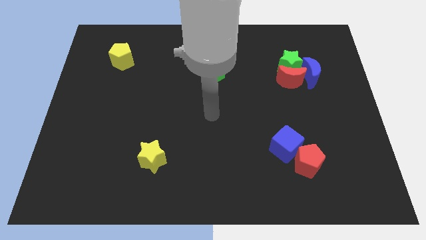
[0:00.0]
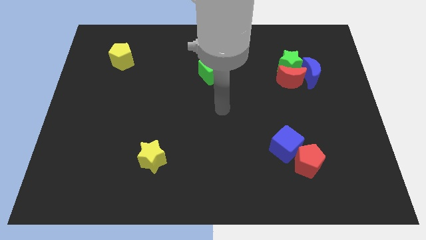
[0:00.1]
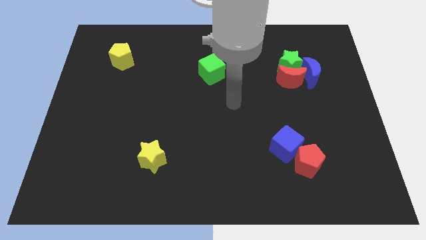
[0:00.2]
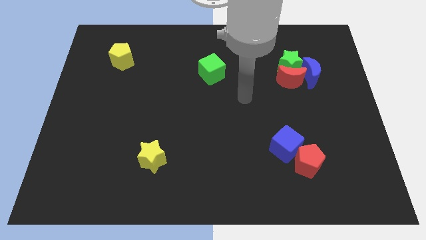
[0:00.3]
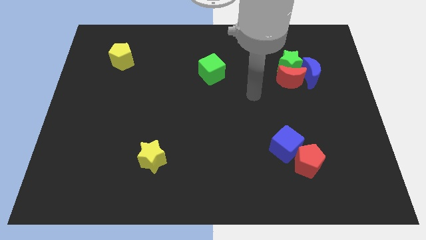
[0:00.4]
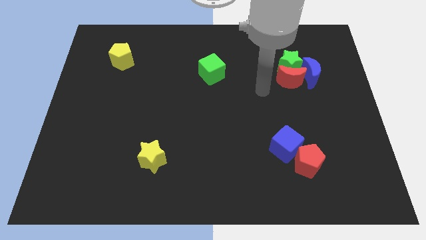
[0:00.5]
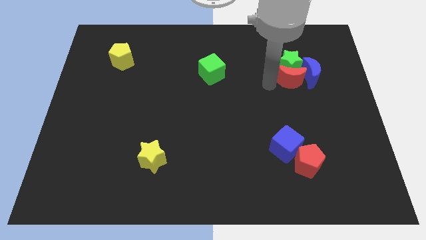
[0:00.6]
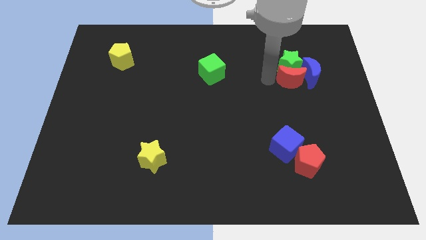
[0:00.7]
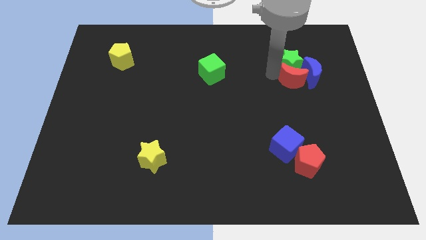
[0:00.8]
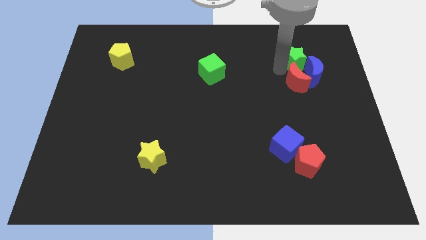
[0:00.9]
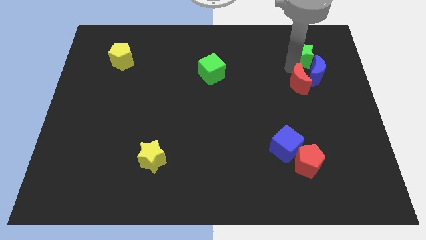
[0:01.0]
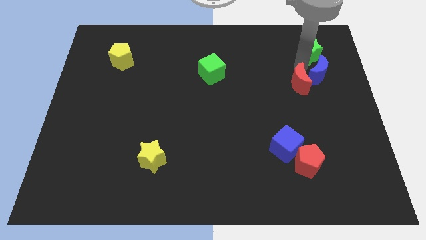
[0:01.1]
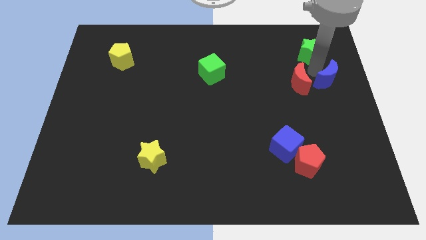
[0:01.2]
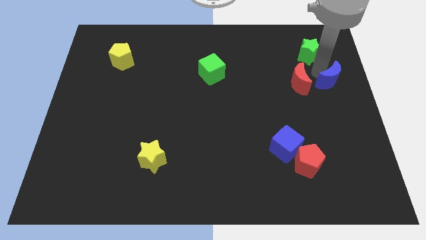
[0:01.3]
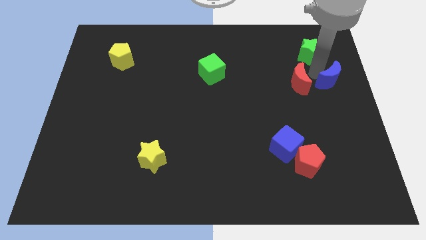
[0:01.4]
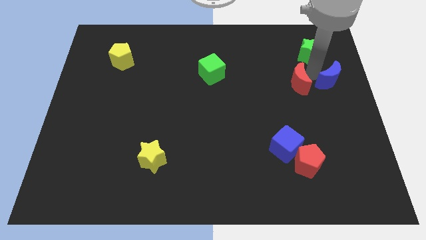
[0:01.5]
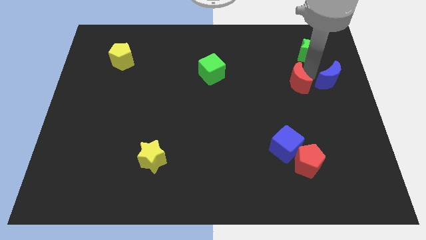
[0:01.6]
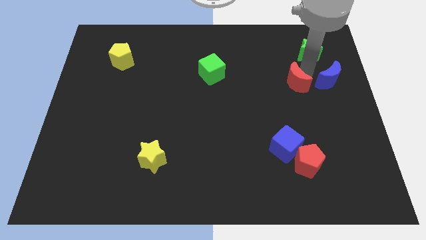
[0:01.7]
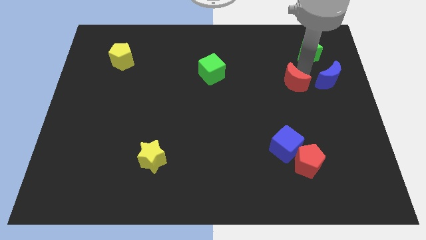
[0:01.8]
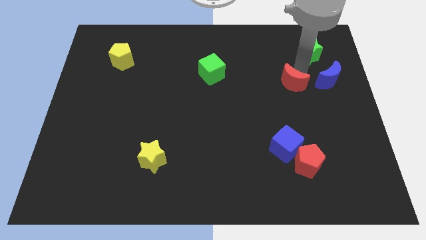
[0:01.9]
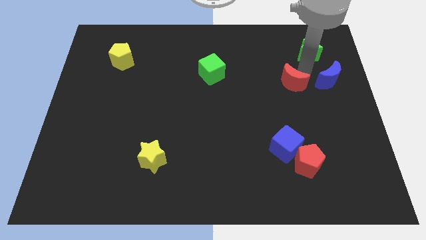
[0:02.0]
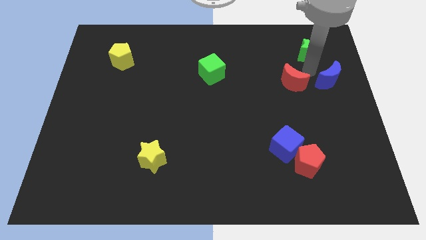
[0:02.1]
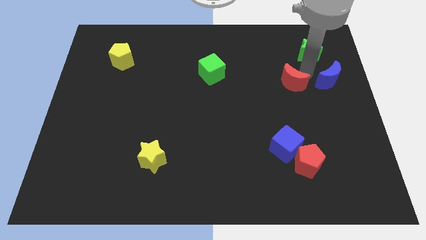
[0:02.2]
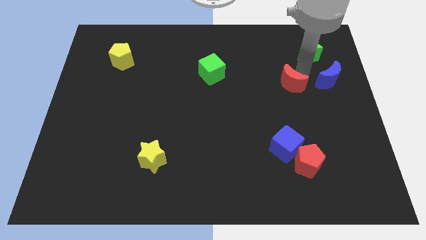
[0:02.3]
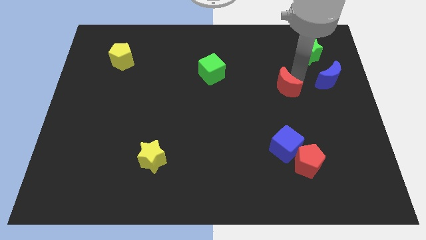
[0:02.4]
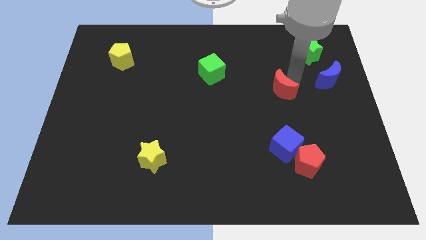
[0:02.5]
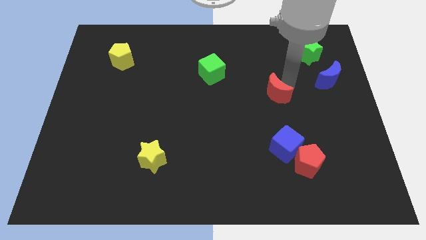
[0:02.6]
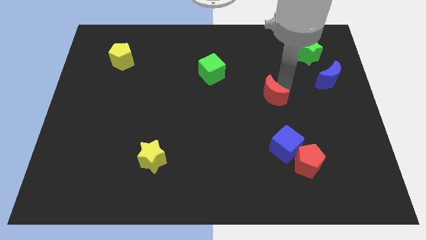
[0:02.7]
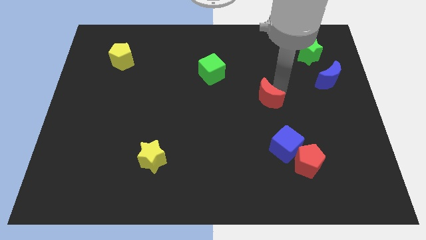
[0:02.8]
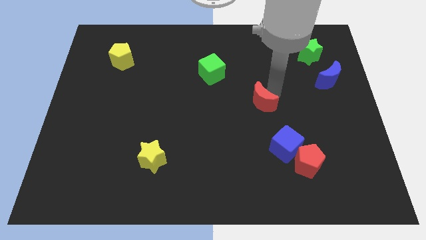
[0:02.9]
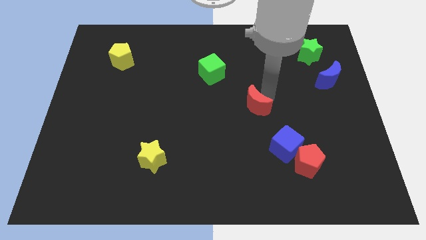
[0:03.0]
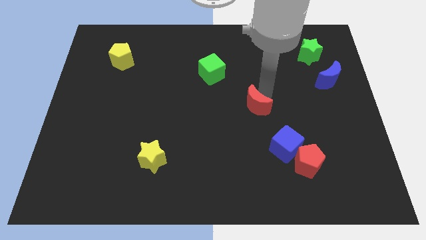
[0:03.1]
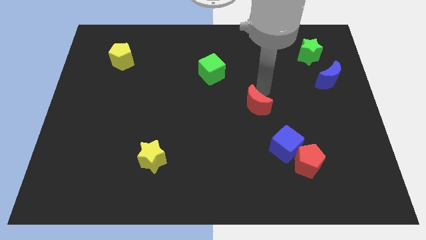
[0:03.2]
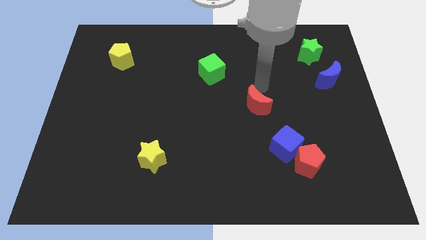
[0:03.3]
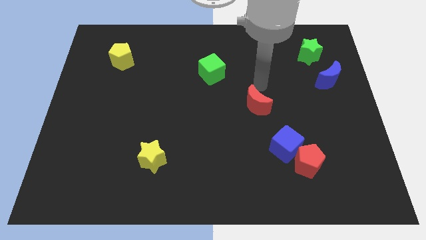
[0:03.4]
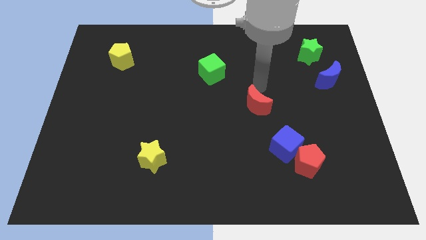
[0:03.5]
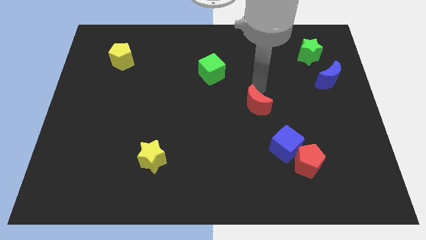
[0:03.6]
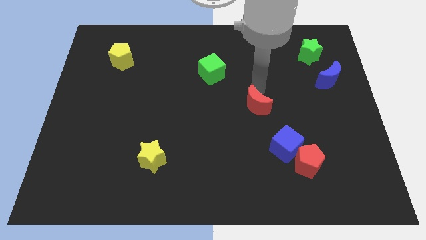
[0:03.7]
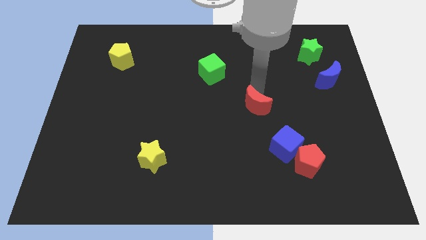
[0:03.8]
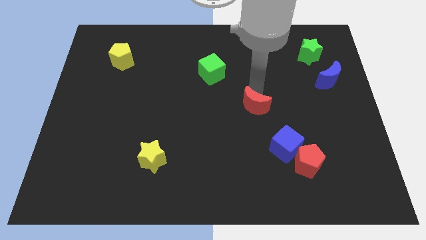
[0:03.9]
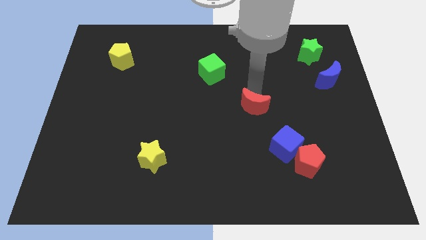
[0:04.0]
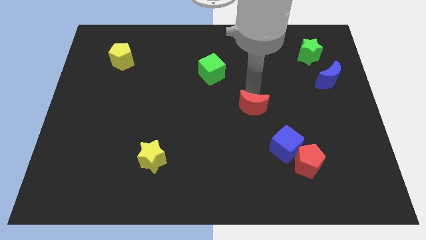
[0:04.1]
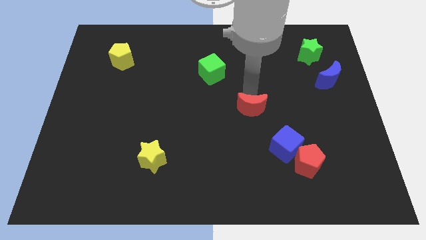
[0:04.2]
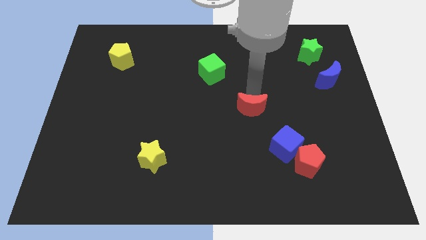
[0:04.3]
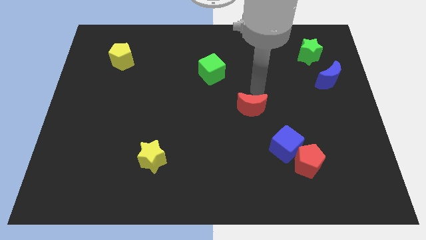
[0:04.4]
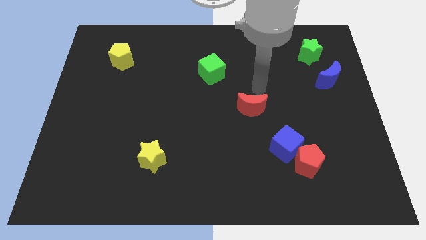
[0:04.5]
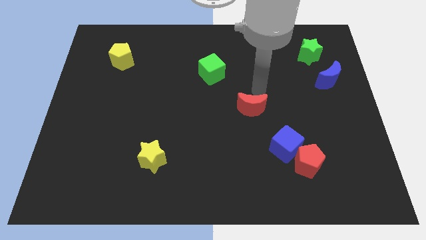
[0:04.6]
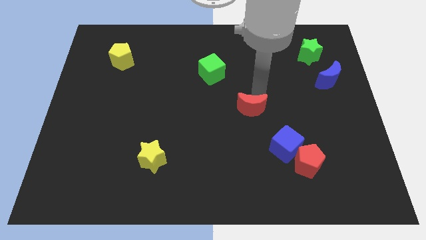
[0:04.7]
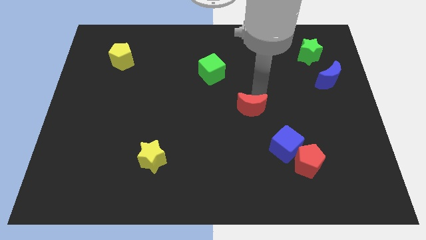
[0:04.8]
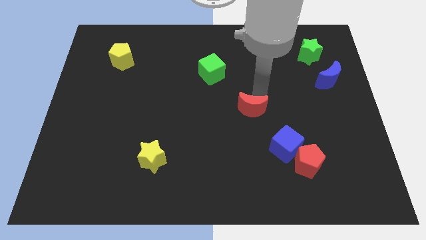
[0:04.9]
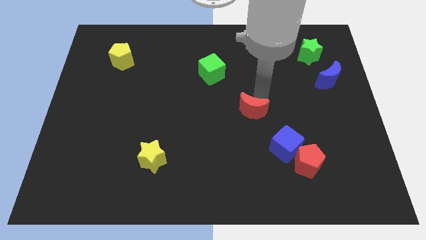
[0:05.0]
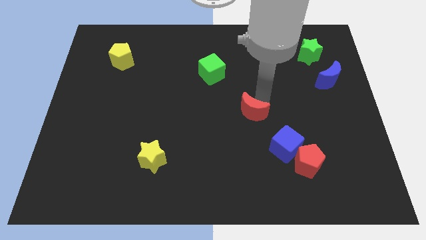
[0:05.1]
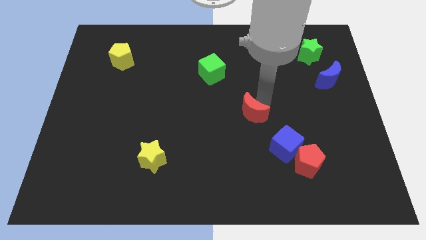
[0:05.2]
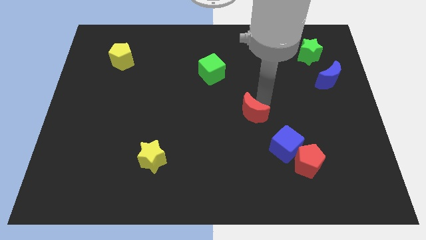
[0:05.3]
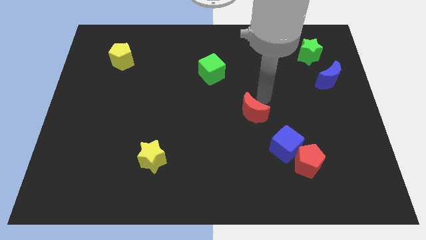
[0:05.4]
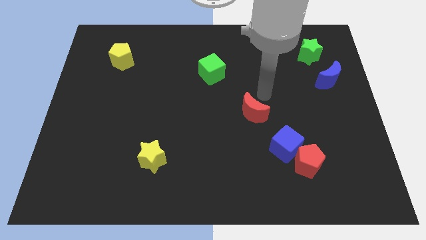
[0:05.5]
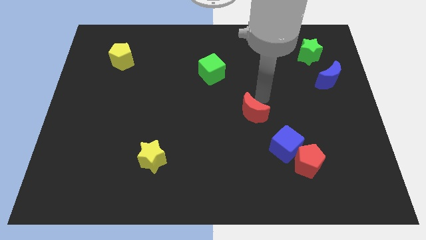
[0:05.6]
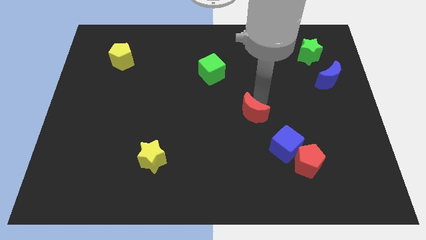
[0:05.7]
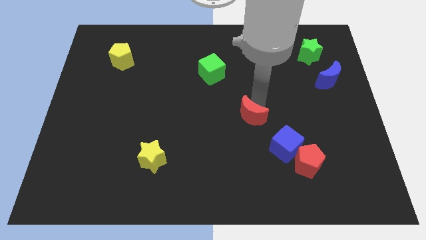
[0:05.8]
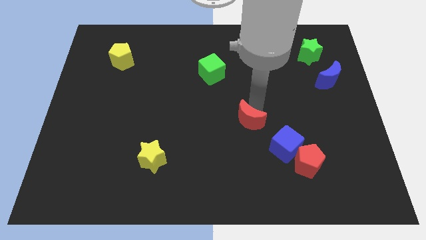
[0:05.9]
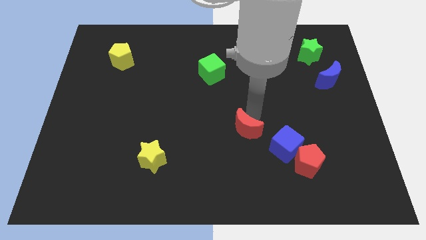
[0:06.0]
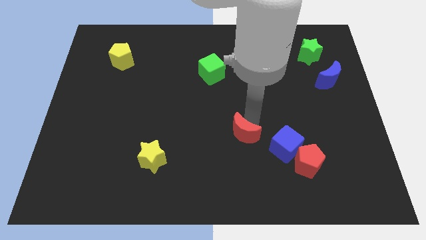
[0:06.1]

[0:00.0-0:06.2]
push the red moon downwards and to the left

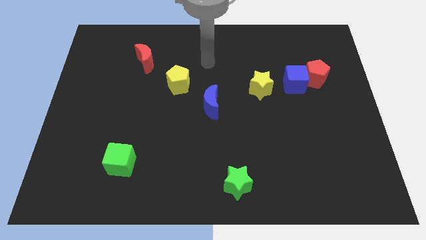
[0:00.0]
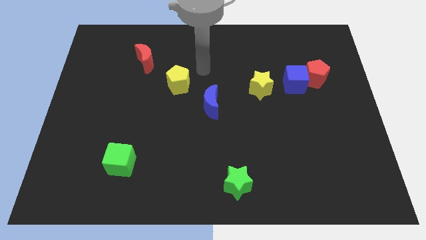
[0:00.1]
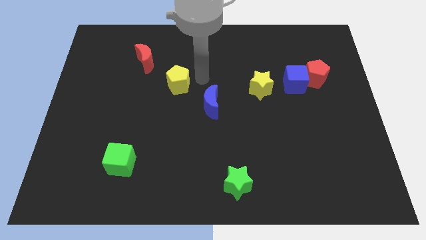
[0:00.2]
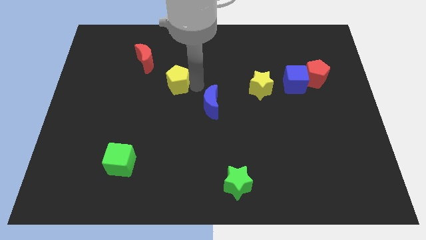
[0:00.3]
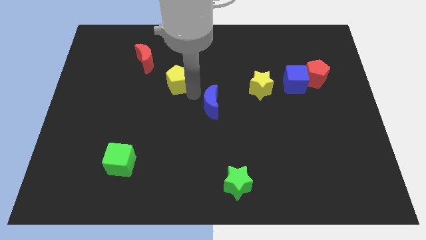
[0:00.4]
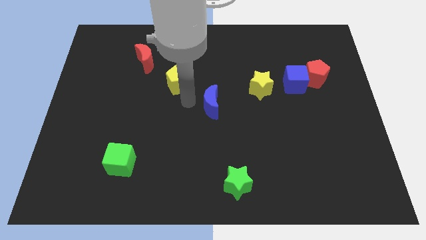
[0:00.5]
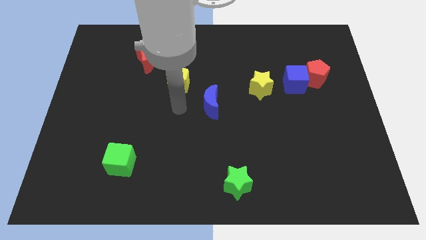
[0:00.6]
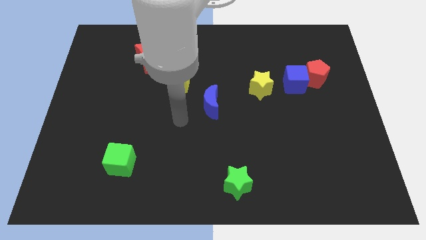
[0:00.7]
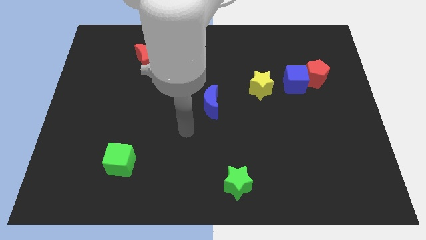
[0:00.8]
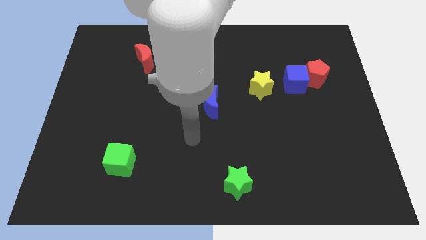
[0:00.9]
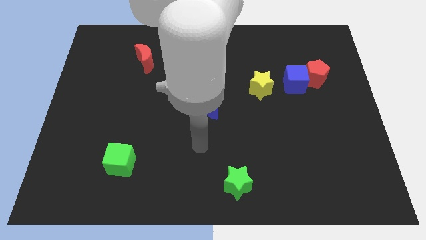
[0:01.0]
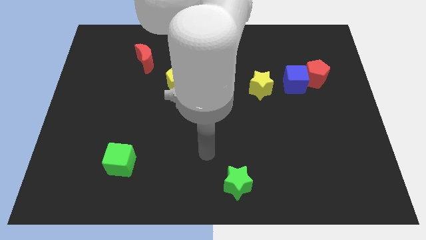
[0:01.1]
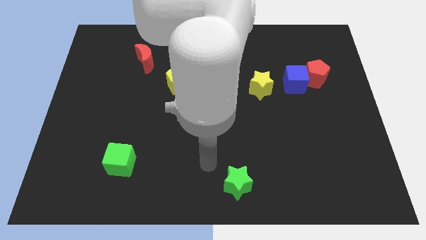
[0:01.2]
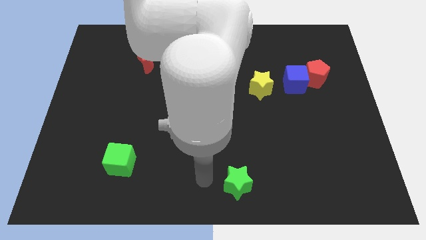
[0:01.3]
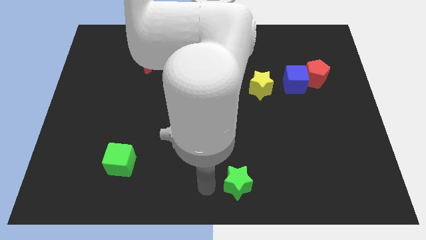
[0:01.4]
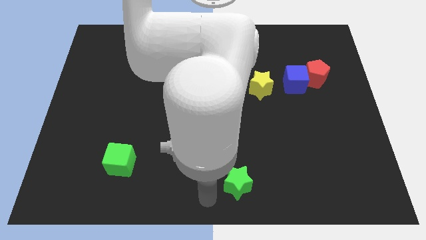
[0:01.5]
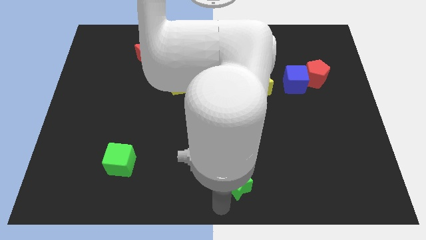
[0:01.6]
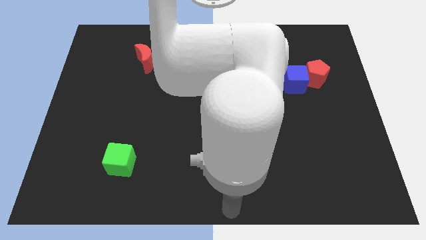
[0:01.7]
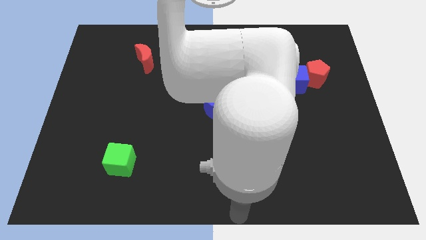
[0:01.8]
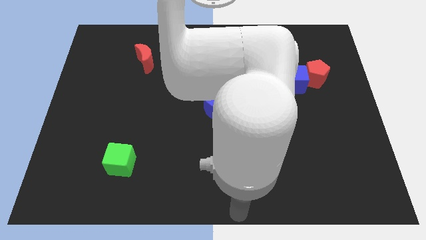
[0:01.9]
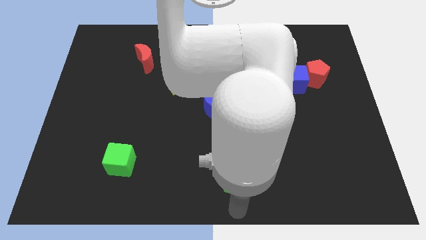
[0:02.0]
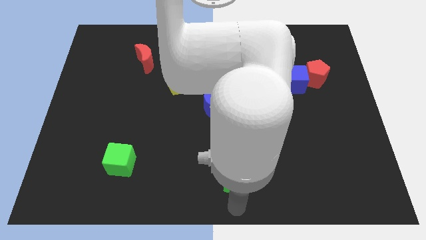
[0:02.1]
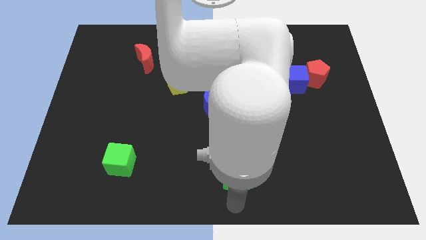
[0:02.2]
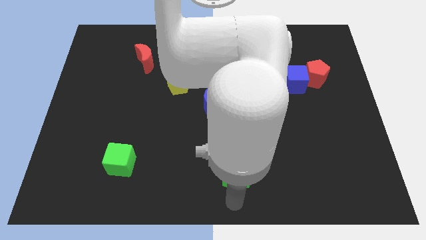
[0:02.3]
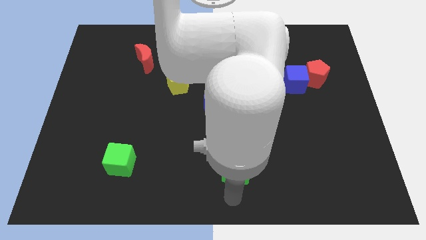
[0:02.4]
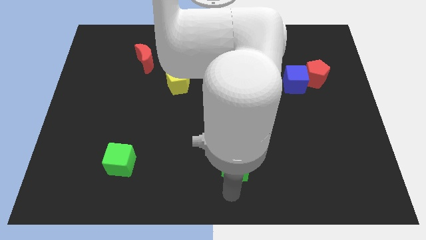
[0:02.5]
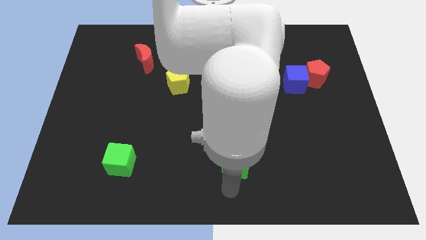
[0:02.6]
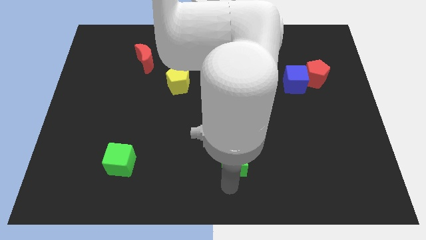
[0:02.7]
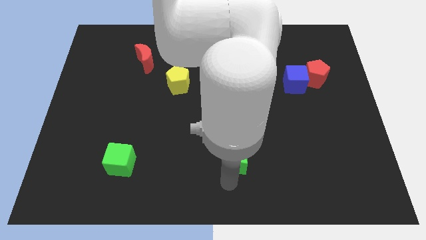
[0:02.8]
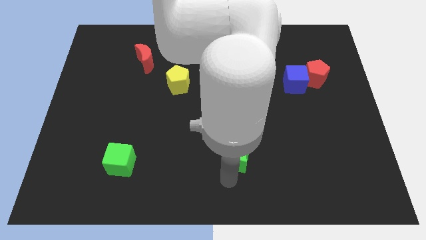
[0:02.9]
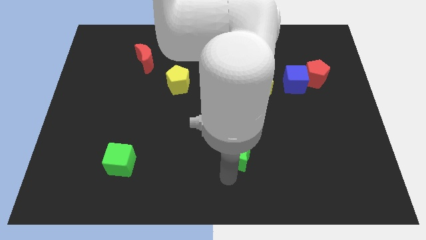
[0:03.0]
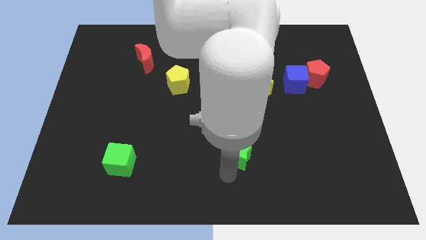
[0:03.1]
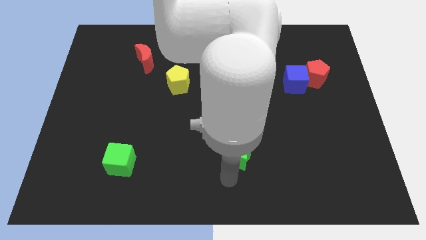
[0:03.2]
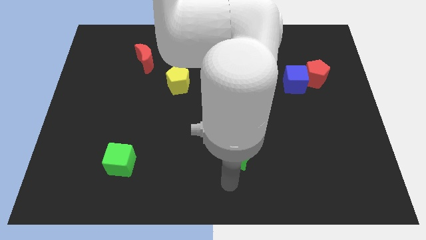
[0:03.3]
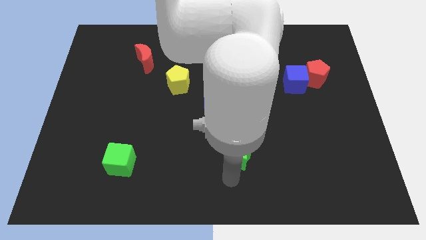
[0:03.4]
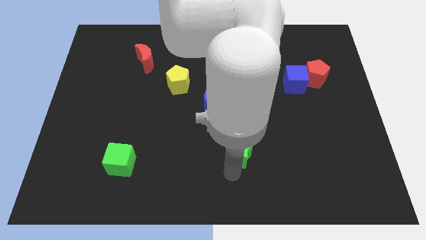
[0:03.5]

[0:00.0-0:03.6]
push the green star a little bit upwards
